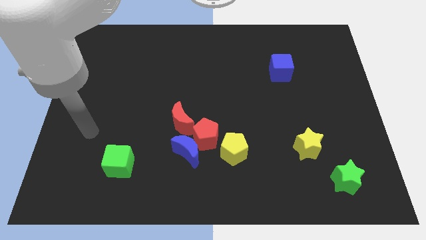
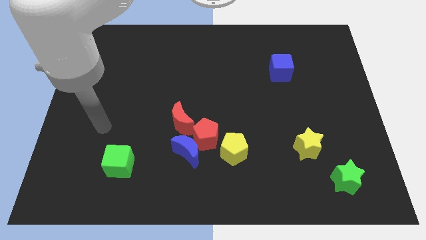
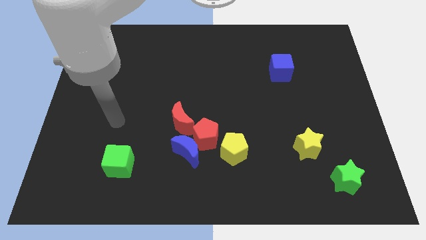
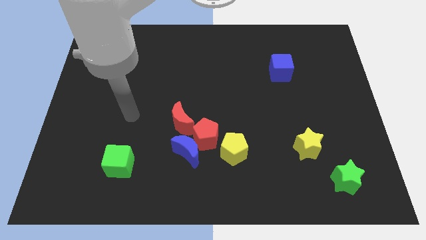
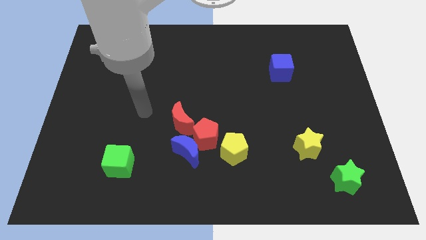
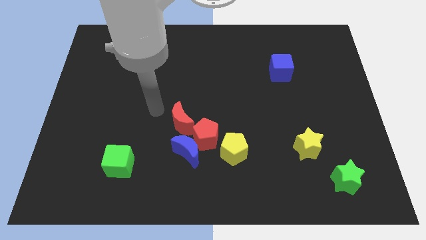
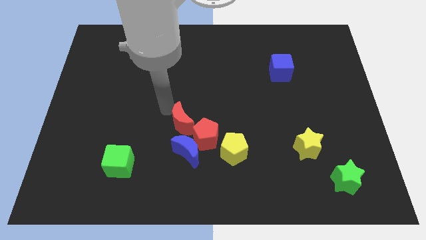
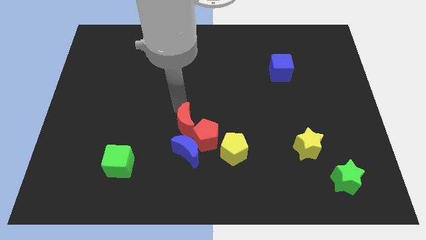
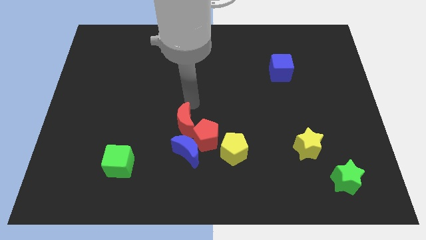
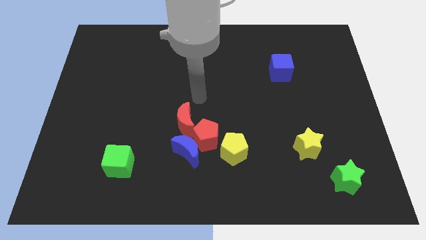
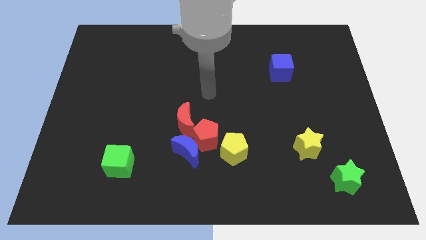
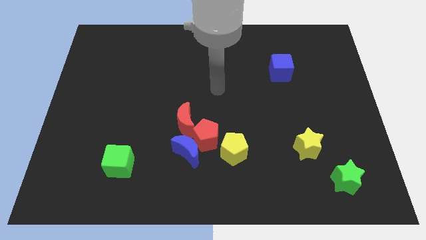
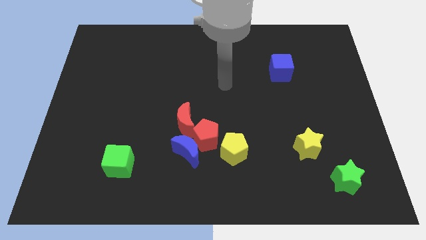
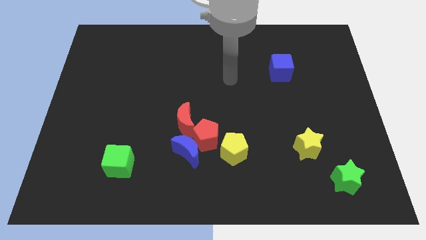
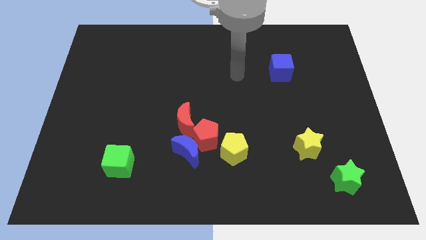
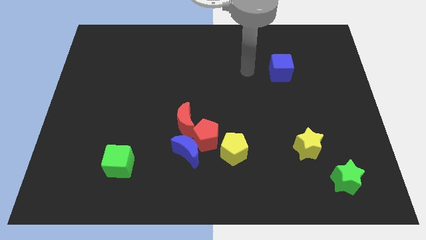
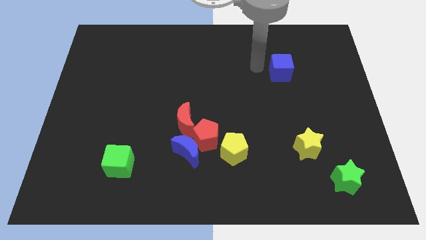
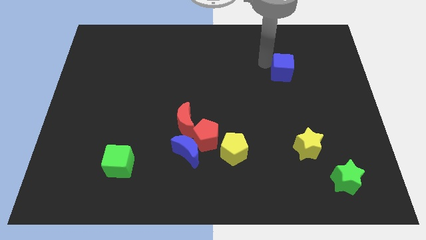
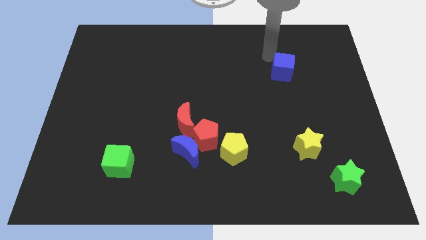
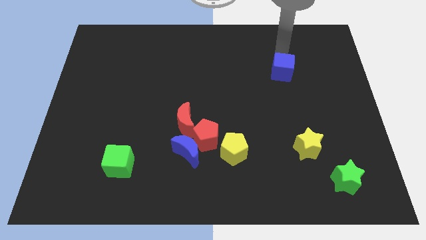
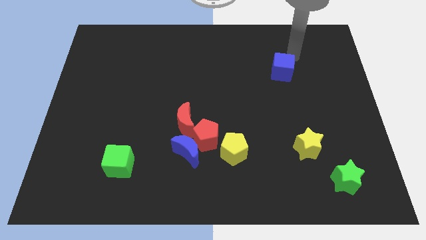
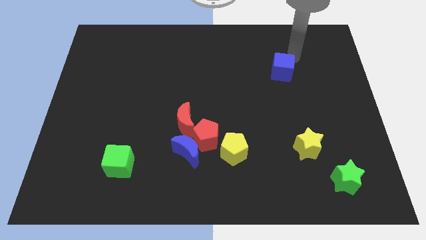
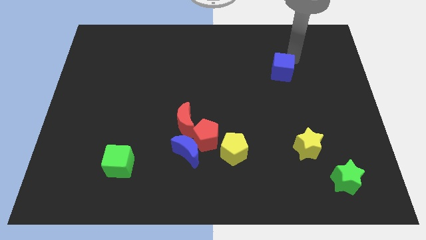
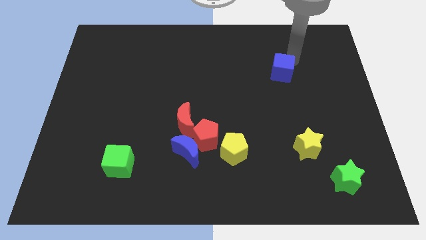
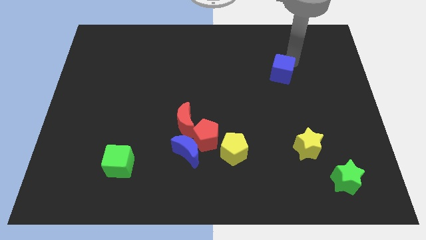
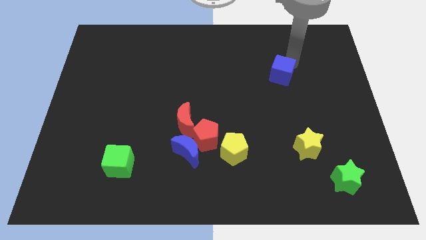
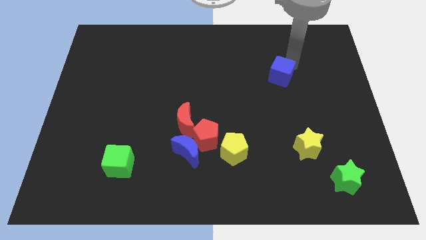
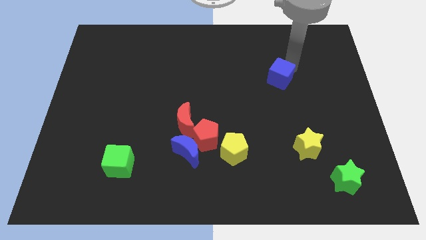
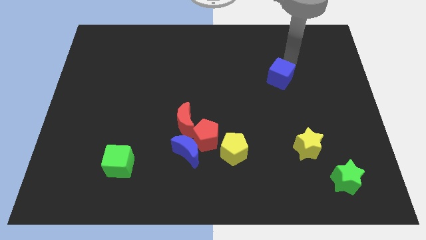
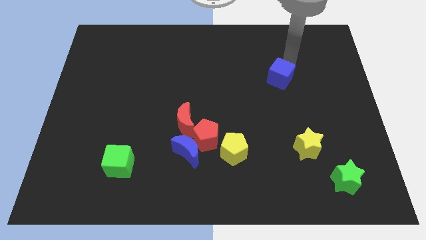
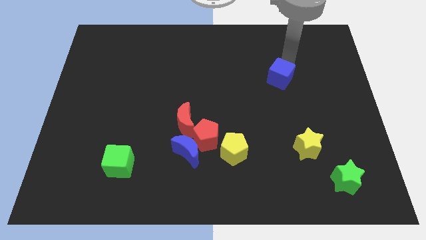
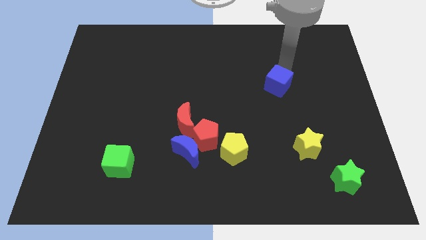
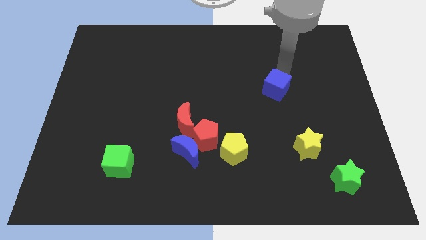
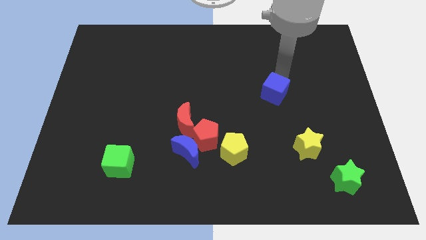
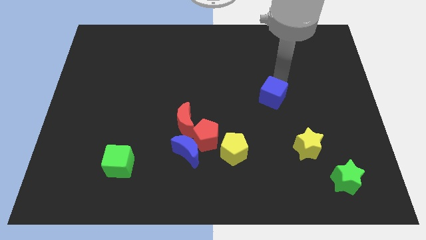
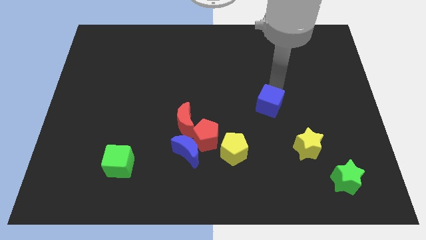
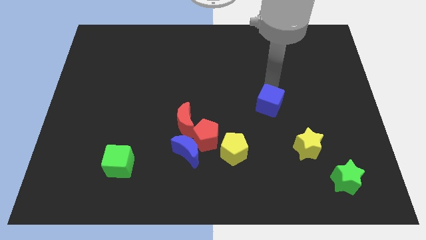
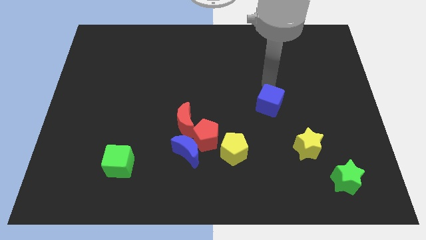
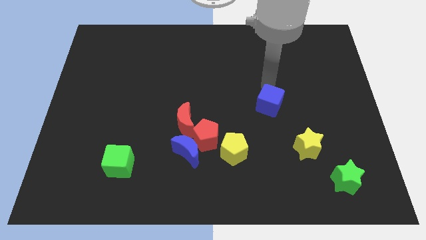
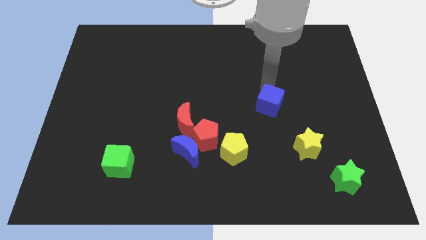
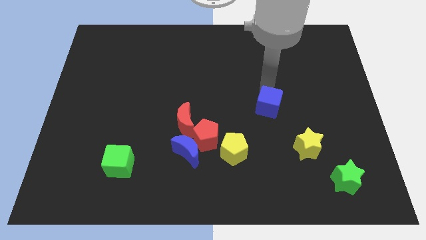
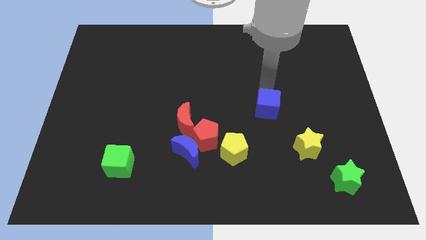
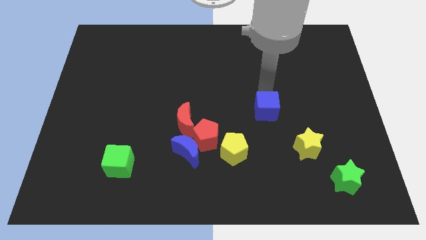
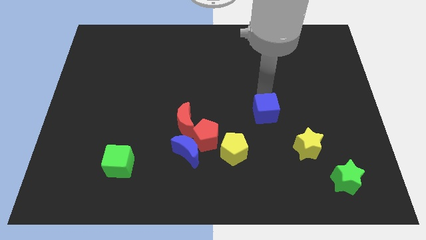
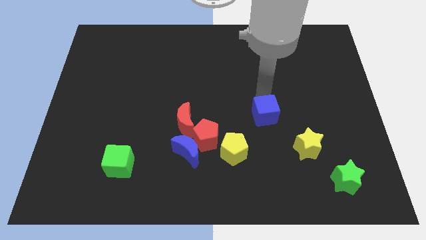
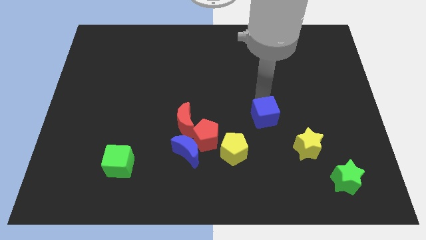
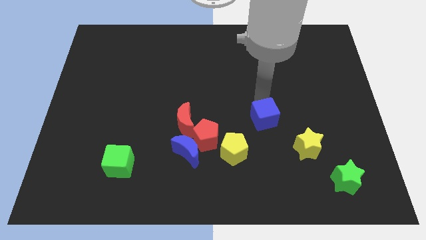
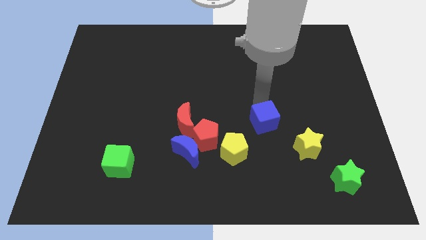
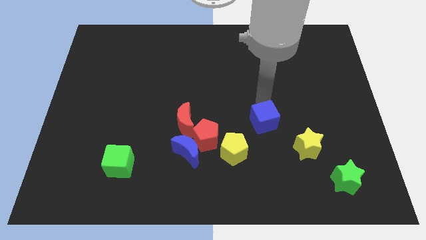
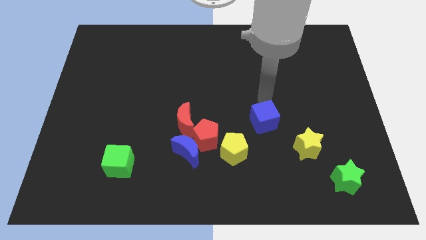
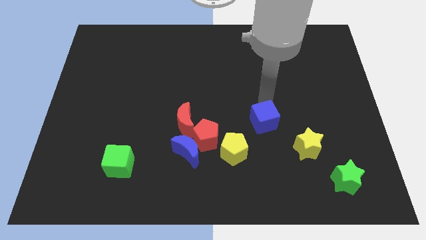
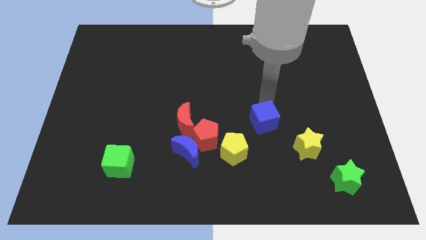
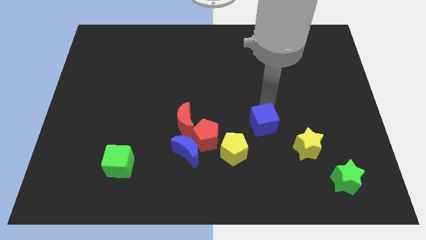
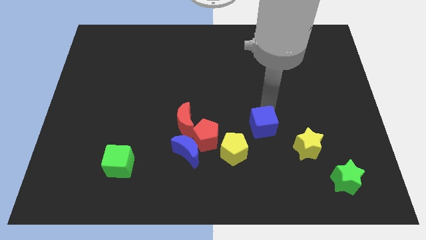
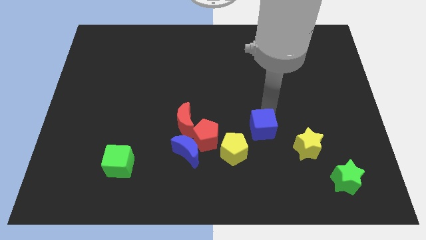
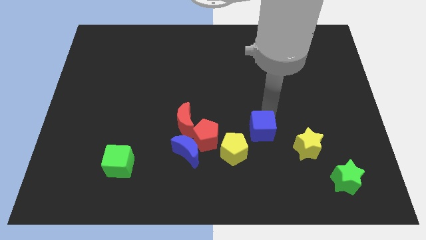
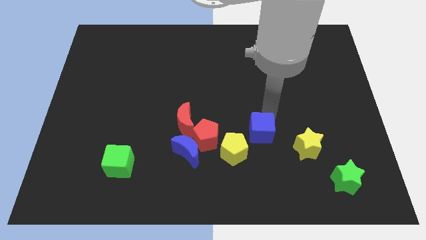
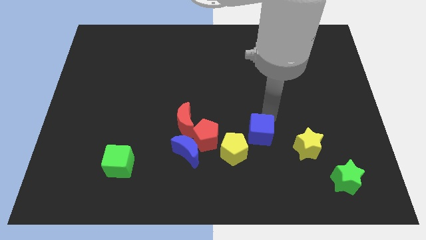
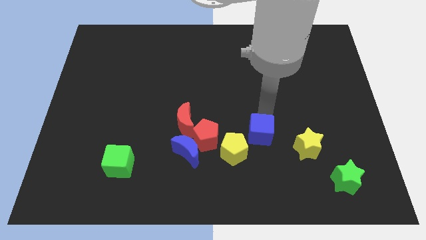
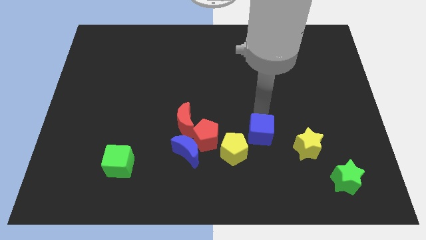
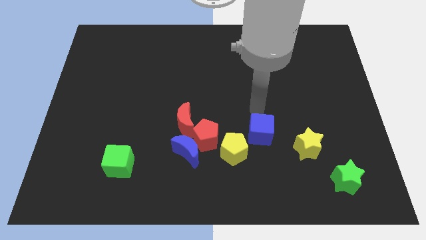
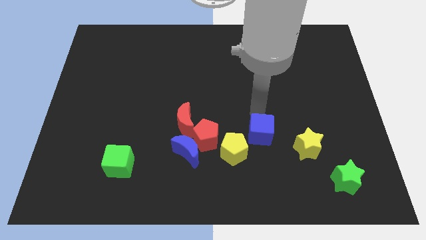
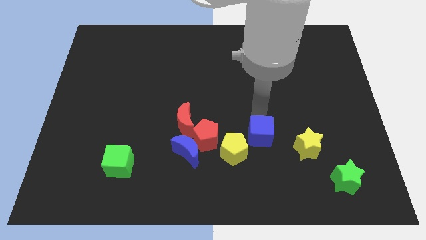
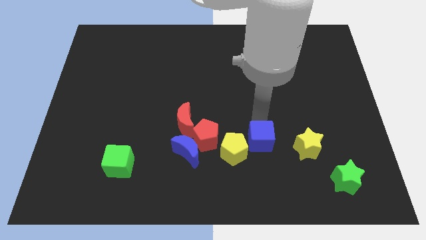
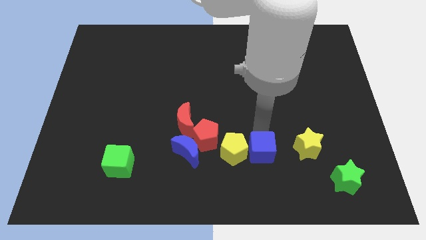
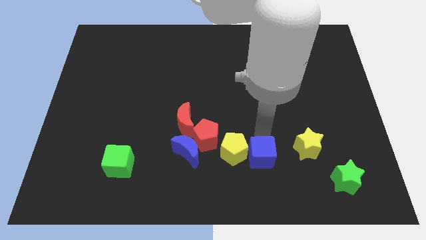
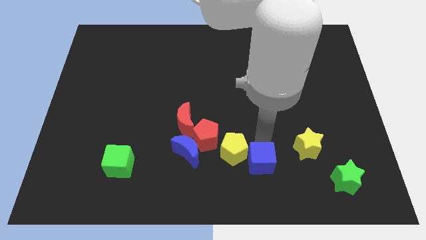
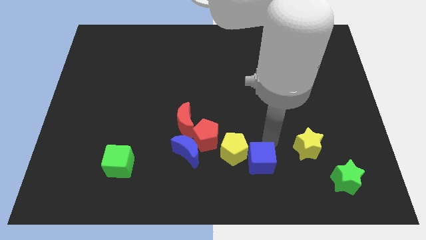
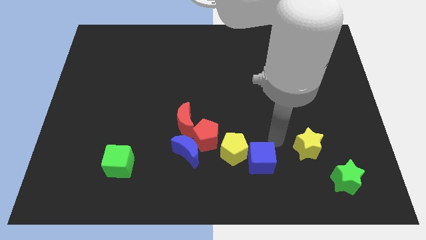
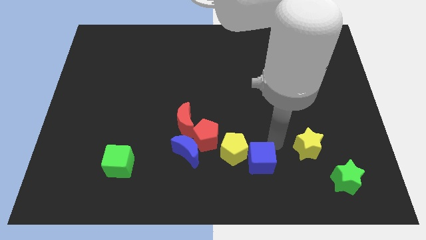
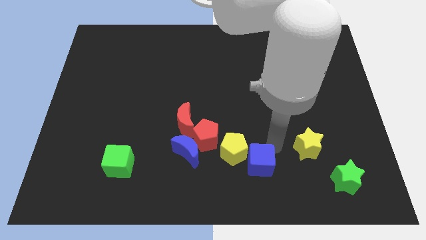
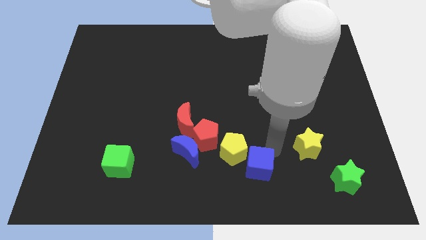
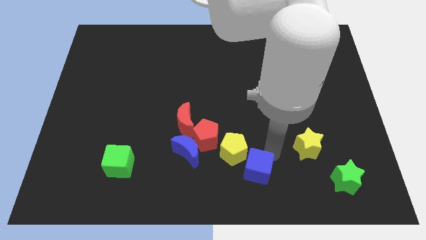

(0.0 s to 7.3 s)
push the blue cube to the bottom side
